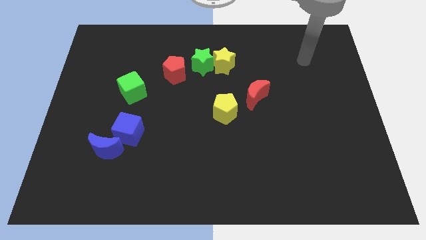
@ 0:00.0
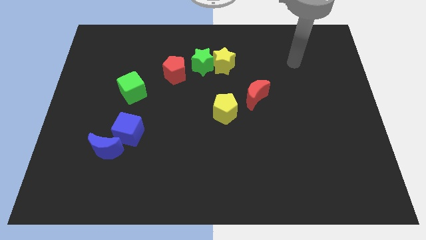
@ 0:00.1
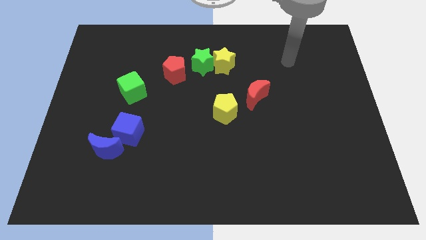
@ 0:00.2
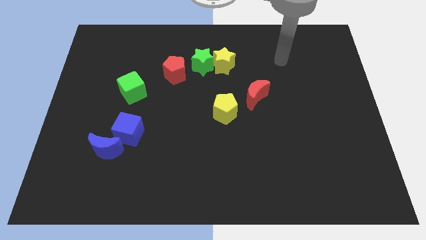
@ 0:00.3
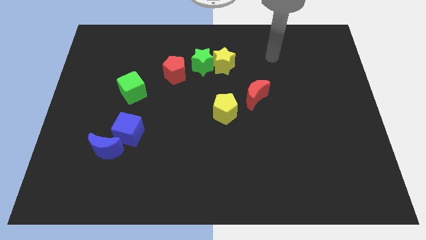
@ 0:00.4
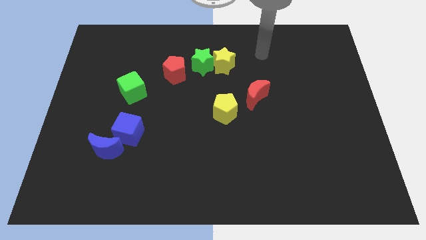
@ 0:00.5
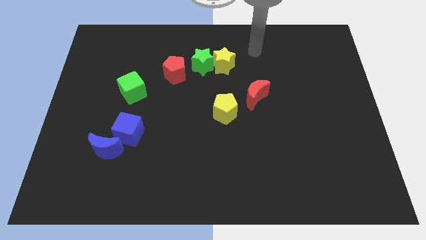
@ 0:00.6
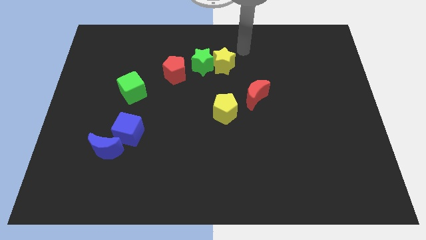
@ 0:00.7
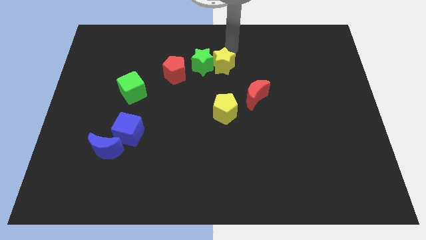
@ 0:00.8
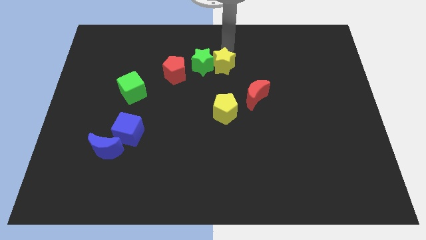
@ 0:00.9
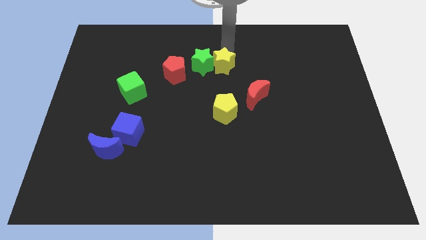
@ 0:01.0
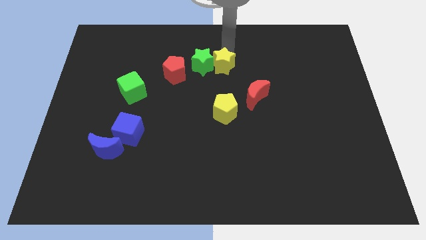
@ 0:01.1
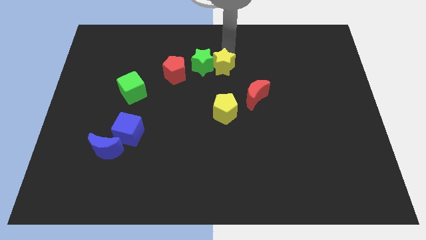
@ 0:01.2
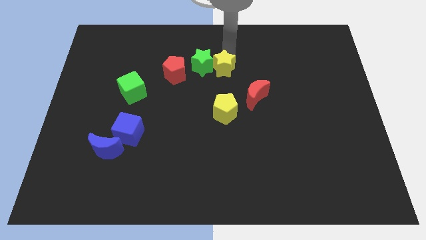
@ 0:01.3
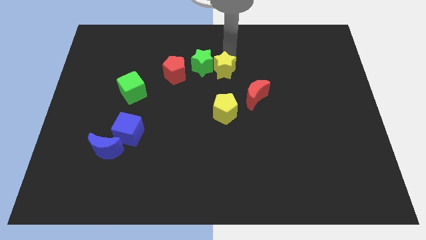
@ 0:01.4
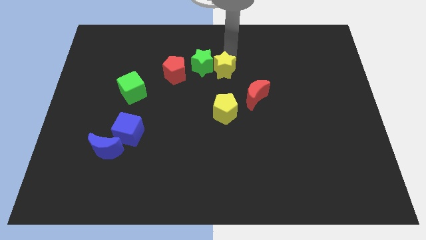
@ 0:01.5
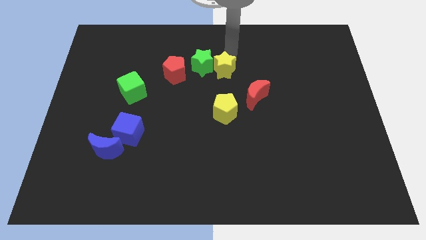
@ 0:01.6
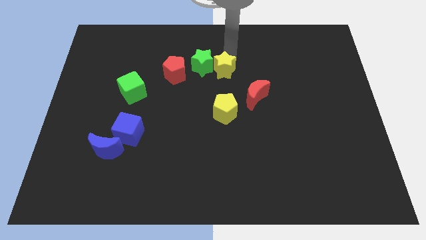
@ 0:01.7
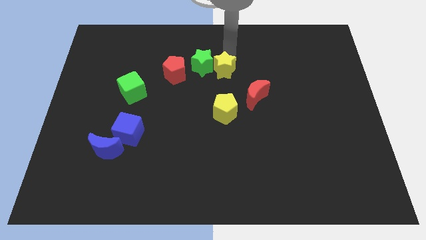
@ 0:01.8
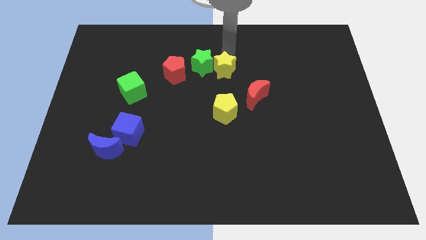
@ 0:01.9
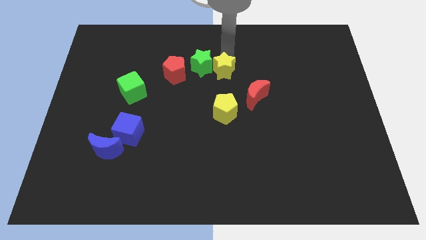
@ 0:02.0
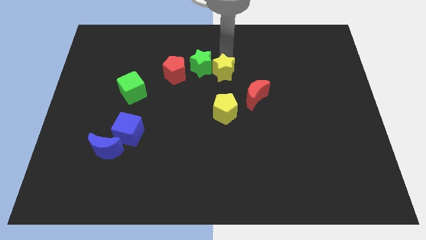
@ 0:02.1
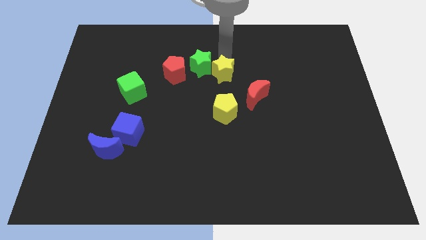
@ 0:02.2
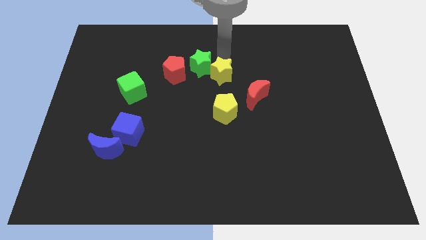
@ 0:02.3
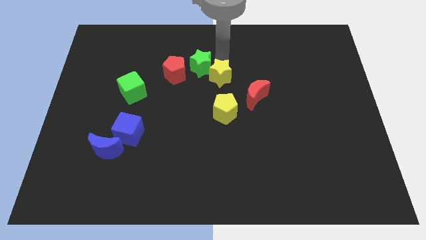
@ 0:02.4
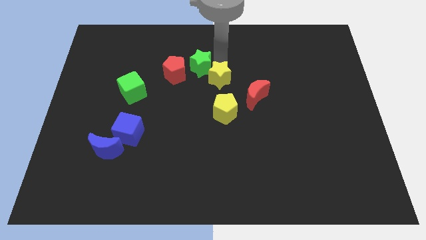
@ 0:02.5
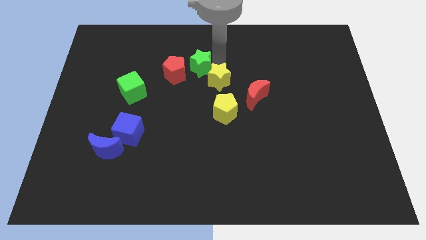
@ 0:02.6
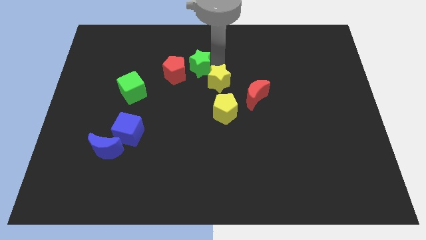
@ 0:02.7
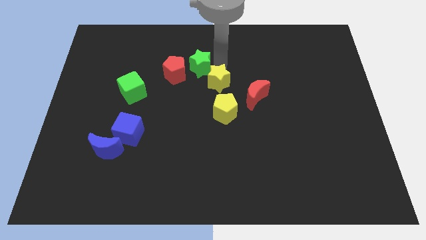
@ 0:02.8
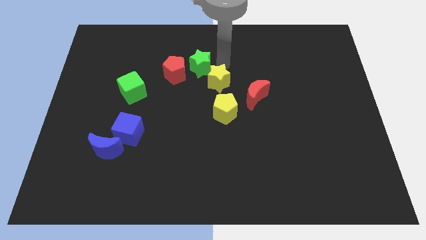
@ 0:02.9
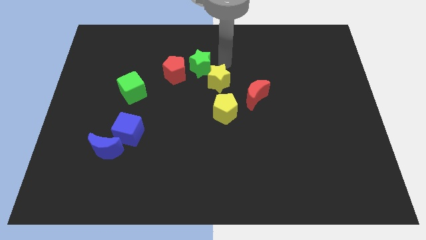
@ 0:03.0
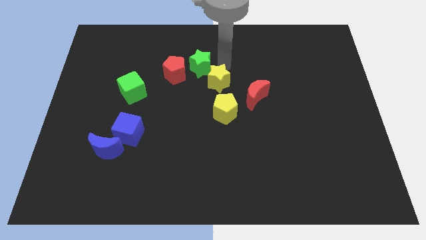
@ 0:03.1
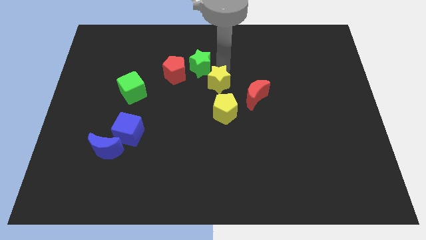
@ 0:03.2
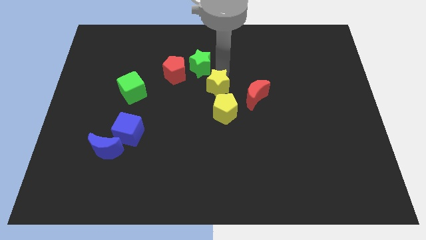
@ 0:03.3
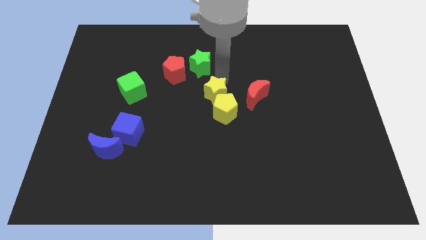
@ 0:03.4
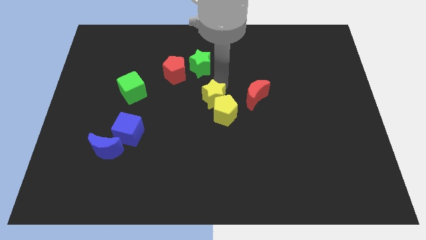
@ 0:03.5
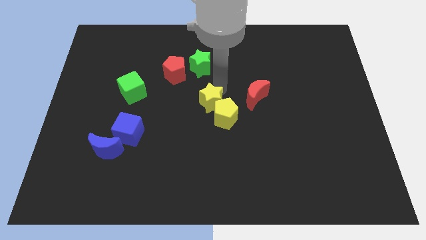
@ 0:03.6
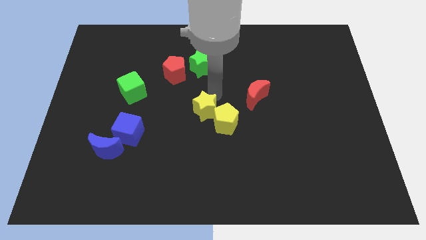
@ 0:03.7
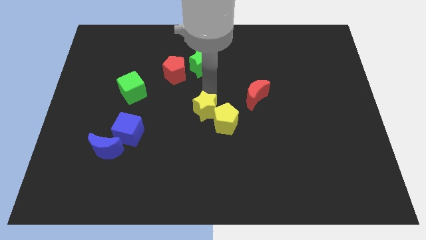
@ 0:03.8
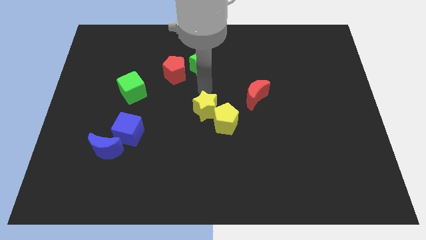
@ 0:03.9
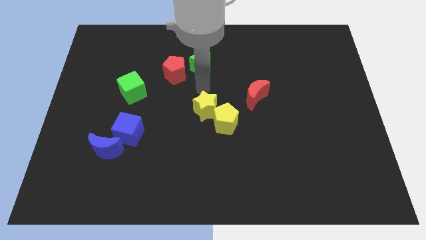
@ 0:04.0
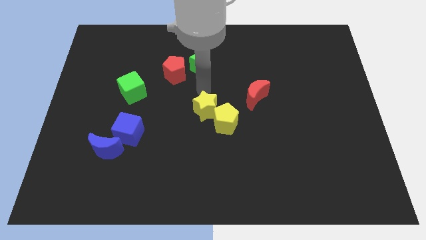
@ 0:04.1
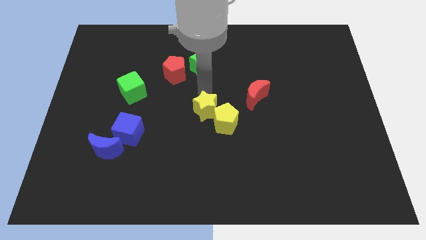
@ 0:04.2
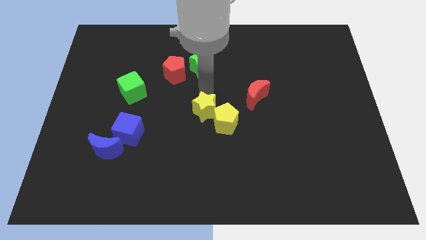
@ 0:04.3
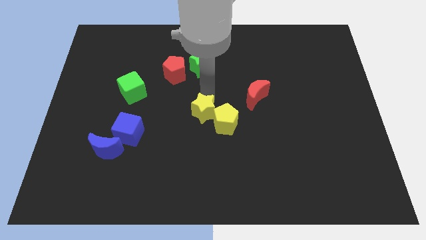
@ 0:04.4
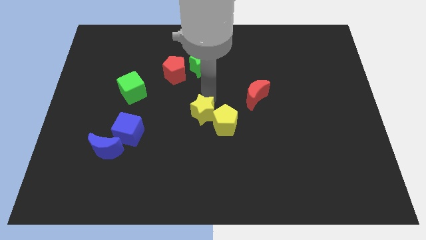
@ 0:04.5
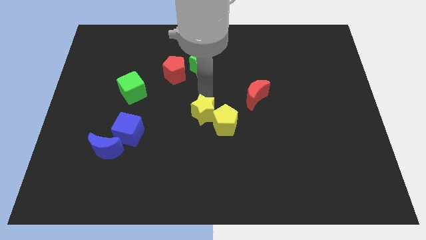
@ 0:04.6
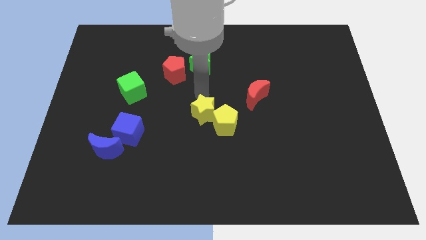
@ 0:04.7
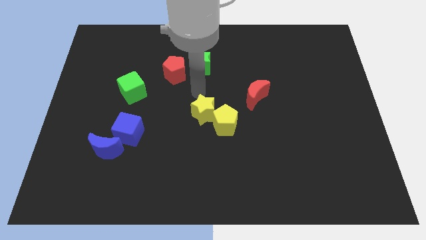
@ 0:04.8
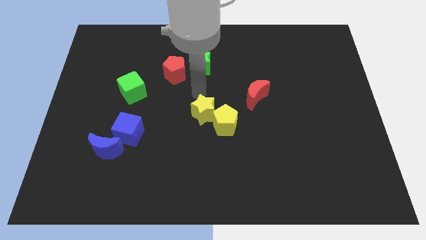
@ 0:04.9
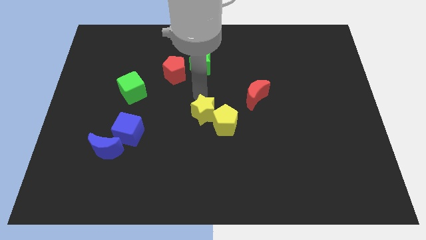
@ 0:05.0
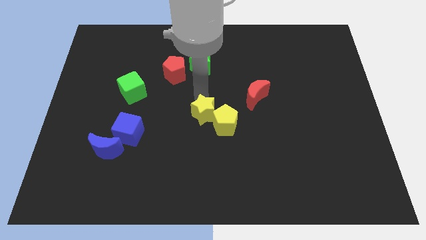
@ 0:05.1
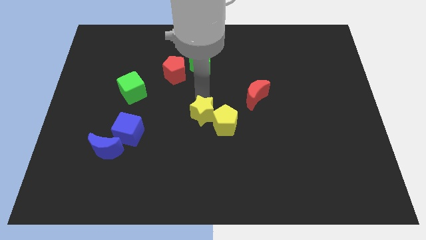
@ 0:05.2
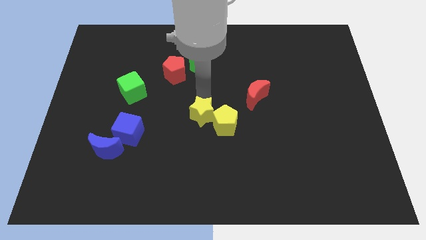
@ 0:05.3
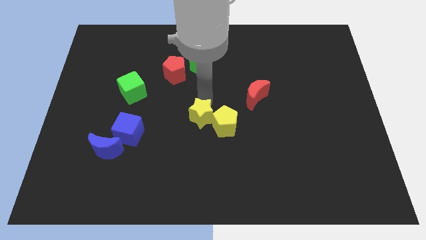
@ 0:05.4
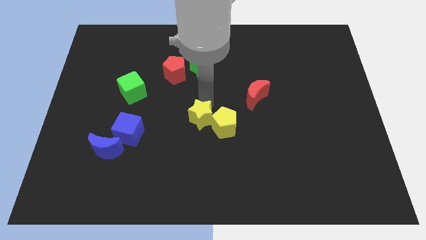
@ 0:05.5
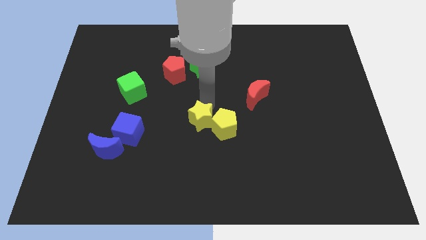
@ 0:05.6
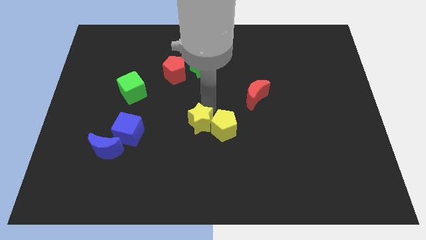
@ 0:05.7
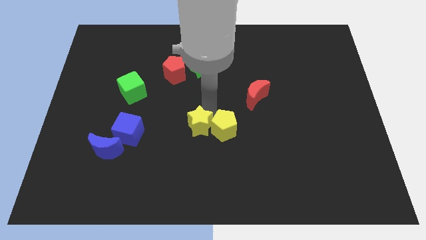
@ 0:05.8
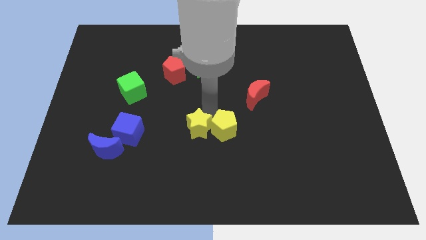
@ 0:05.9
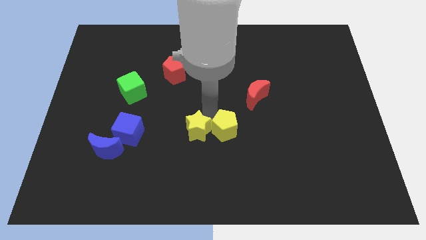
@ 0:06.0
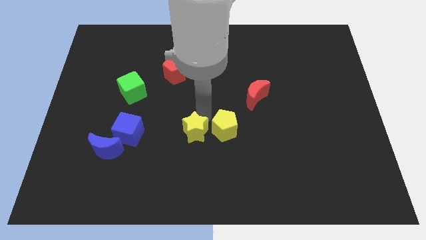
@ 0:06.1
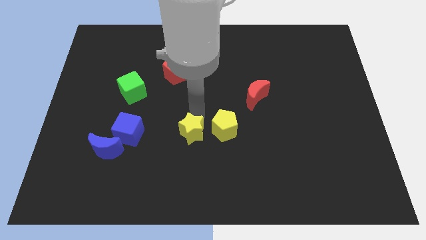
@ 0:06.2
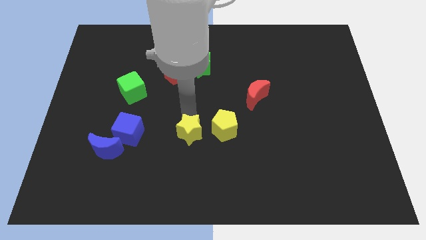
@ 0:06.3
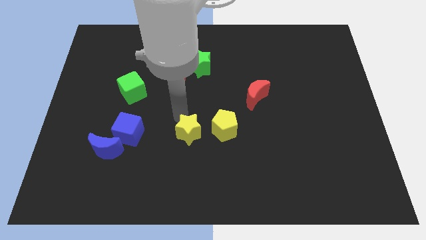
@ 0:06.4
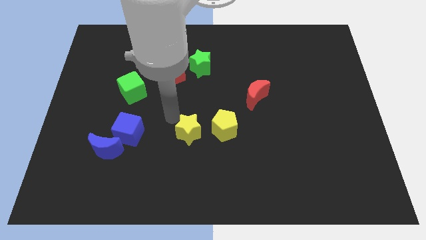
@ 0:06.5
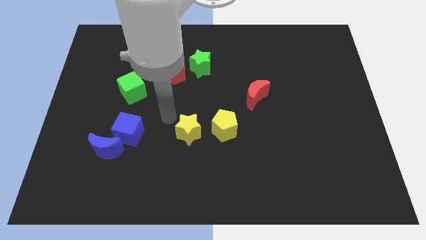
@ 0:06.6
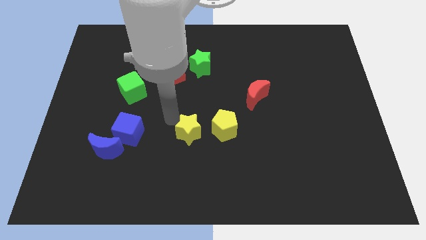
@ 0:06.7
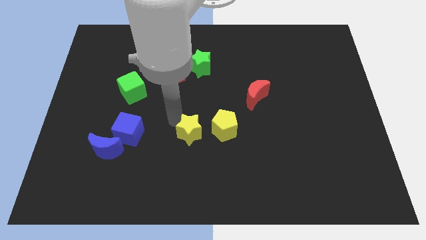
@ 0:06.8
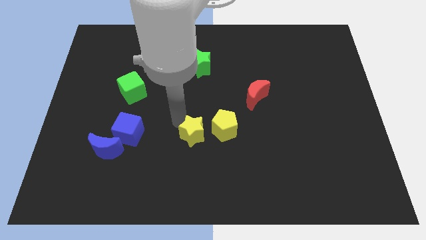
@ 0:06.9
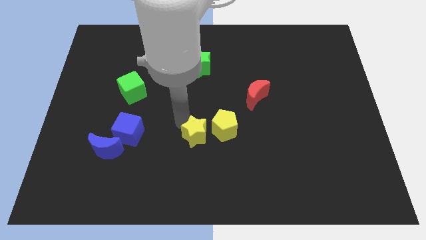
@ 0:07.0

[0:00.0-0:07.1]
slide the yellow star down

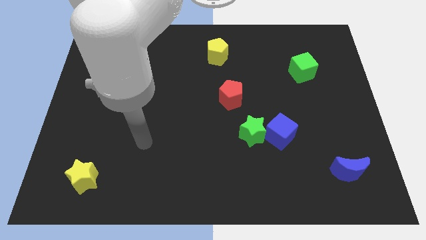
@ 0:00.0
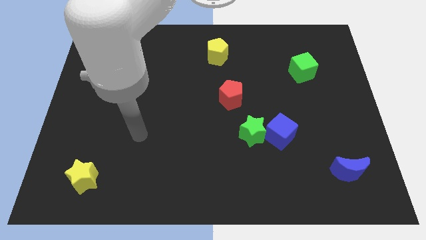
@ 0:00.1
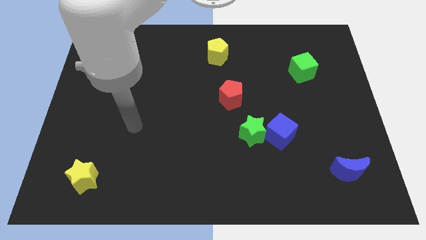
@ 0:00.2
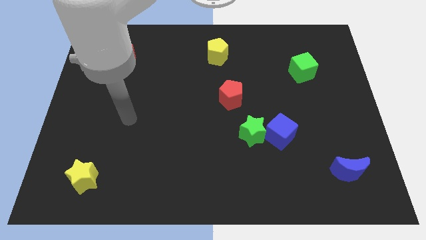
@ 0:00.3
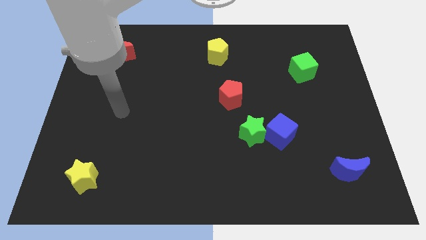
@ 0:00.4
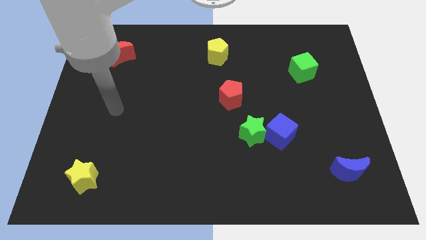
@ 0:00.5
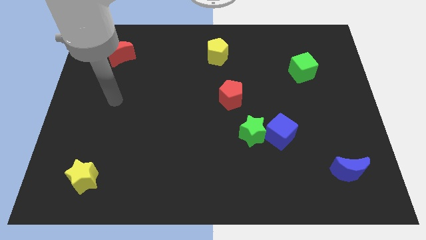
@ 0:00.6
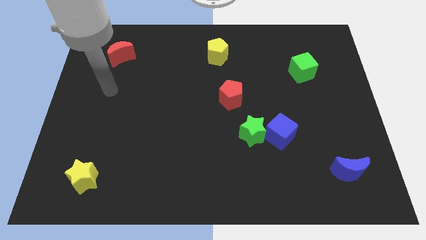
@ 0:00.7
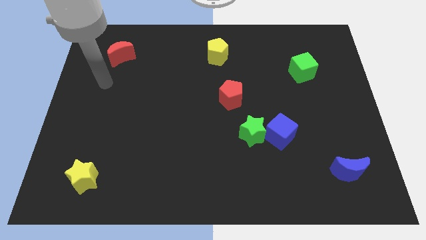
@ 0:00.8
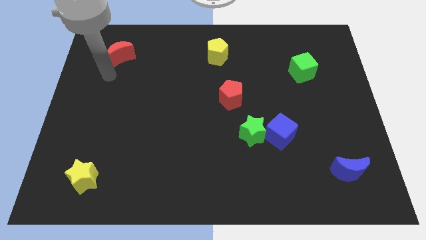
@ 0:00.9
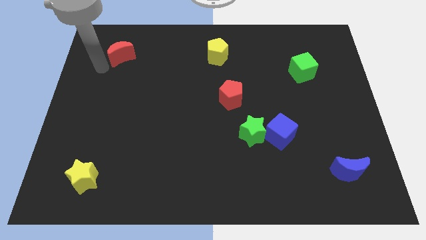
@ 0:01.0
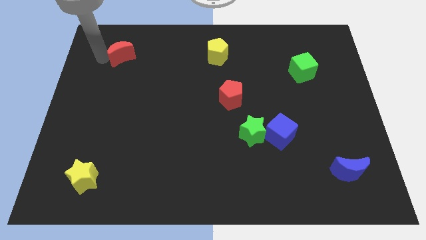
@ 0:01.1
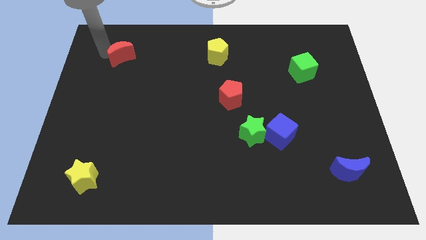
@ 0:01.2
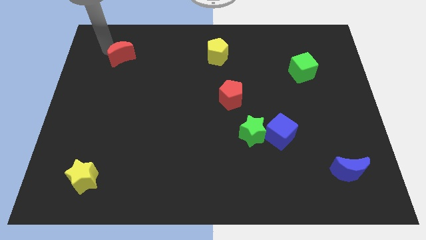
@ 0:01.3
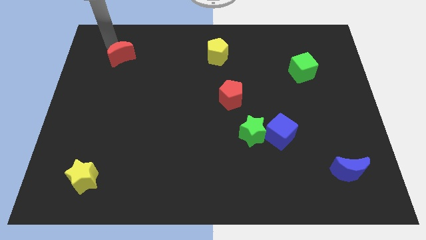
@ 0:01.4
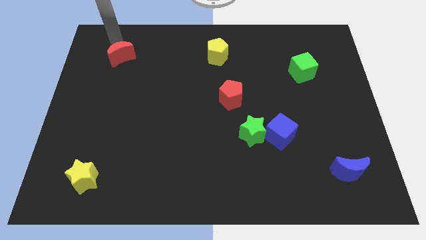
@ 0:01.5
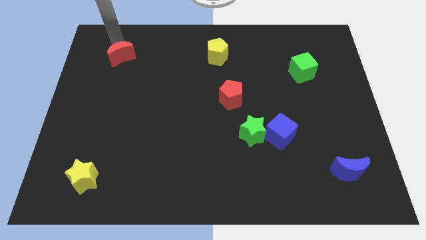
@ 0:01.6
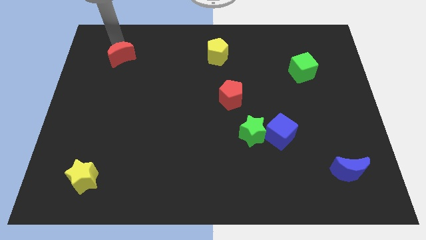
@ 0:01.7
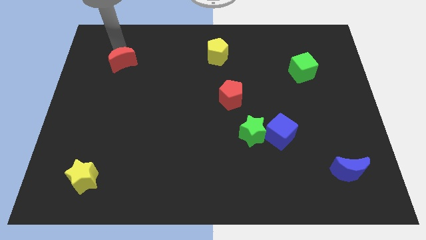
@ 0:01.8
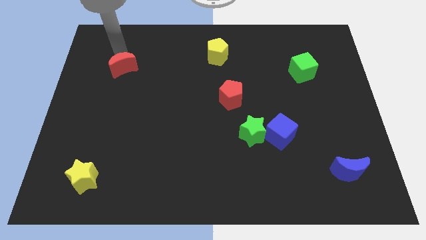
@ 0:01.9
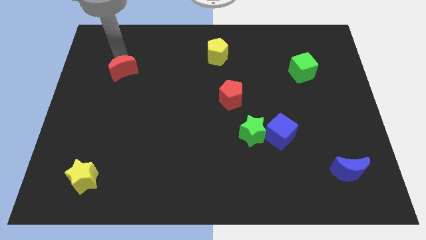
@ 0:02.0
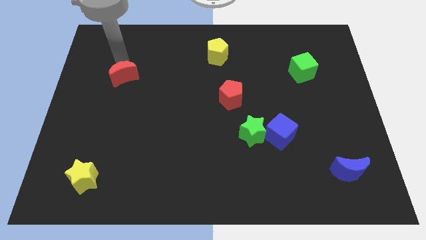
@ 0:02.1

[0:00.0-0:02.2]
move the red moon downwards somewhat
